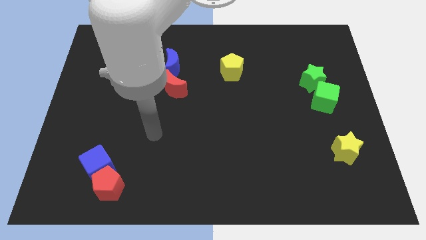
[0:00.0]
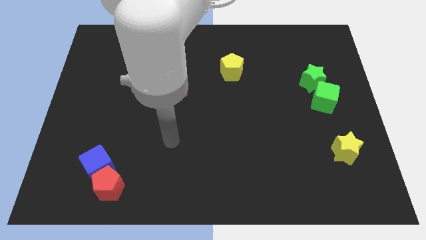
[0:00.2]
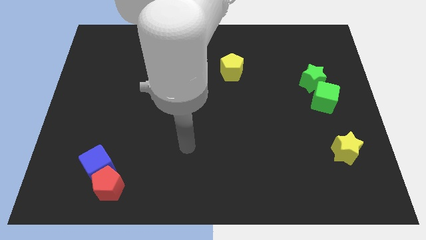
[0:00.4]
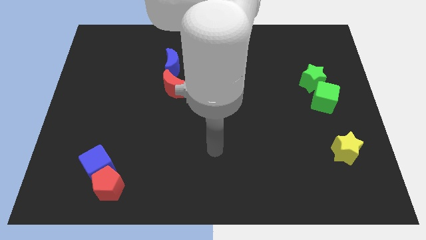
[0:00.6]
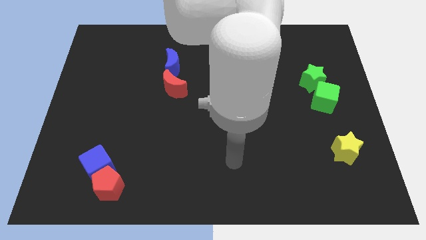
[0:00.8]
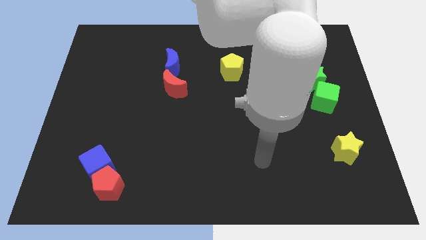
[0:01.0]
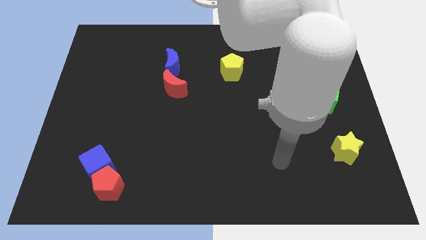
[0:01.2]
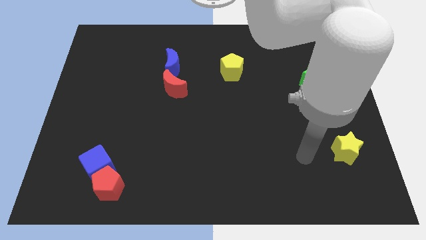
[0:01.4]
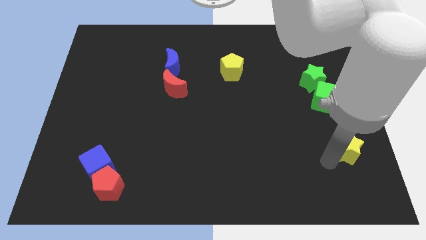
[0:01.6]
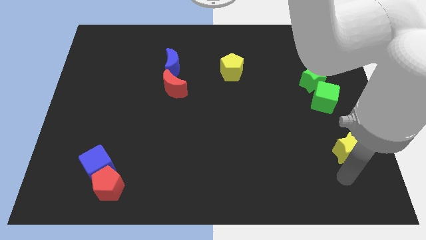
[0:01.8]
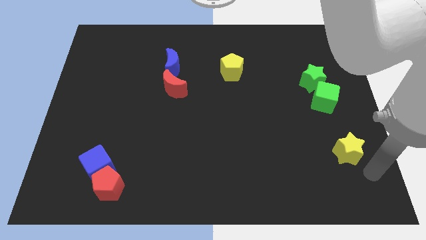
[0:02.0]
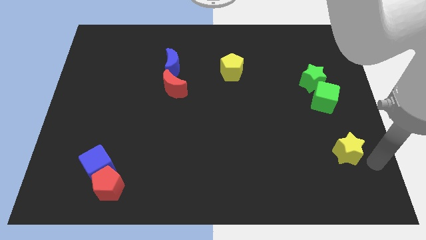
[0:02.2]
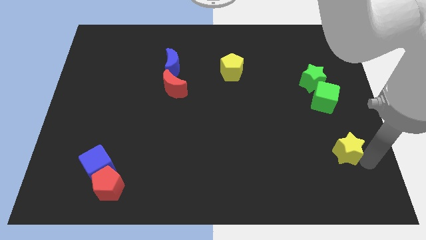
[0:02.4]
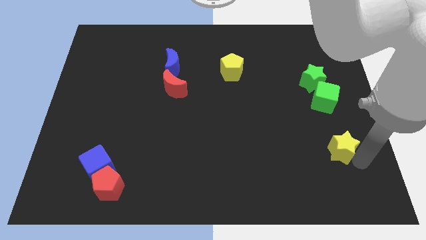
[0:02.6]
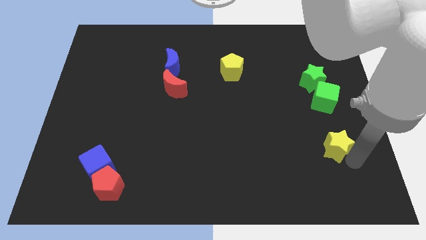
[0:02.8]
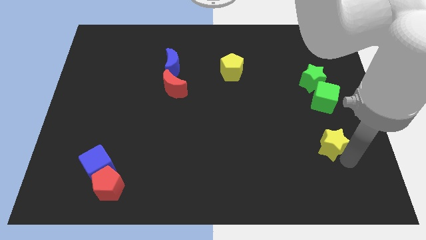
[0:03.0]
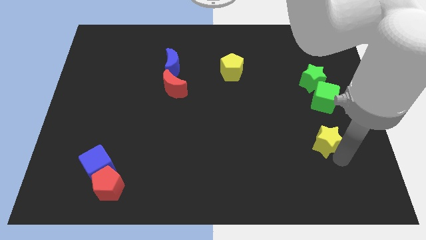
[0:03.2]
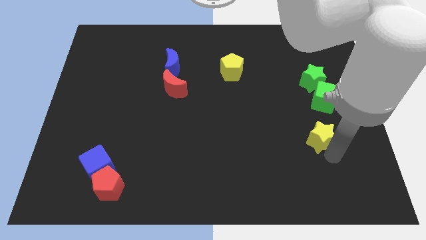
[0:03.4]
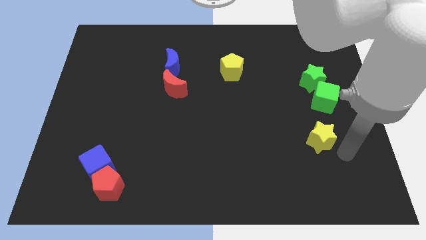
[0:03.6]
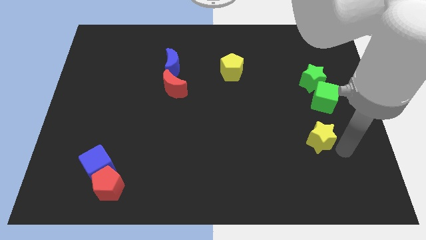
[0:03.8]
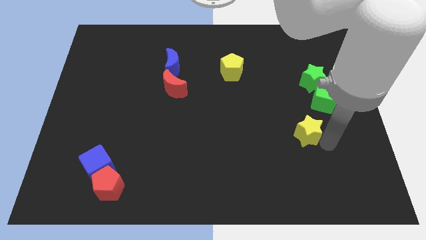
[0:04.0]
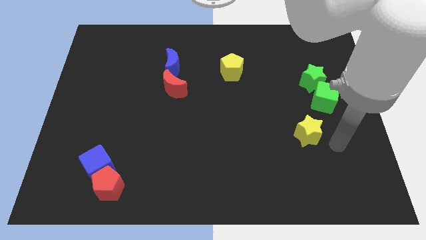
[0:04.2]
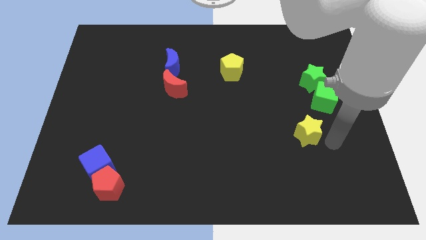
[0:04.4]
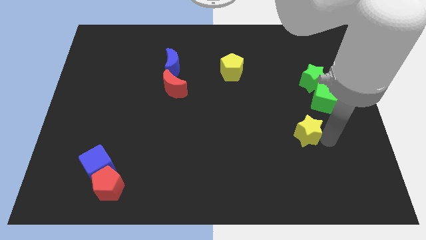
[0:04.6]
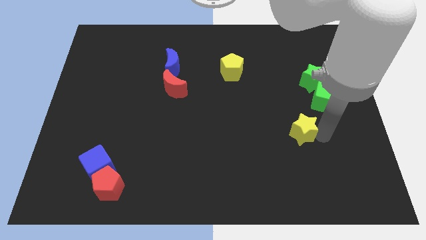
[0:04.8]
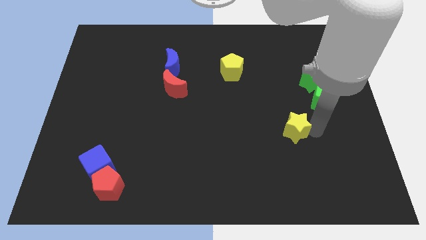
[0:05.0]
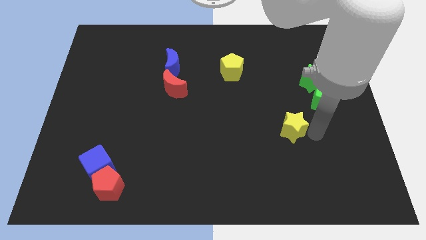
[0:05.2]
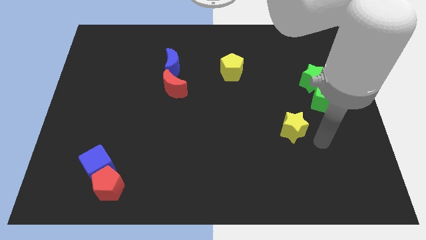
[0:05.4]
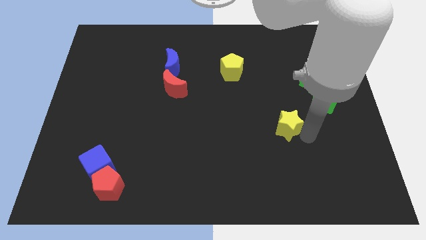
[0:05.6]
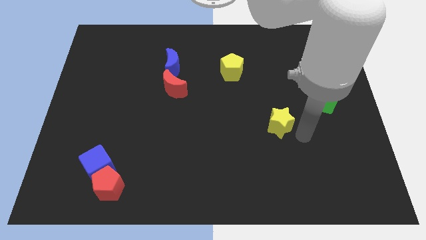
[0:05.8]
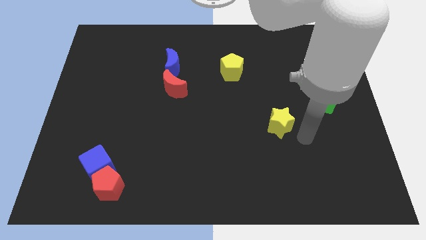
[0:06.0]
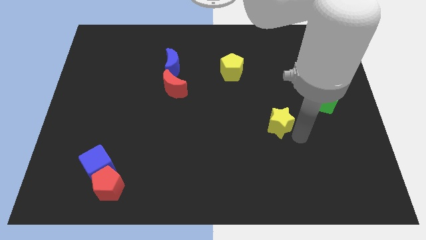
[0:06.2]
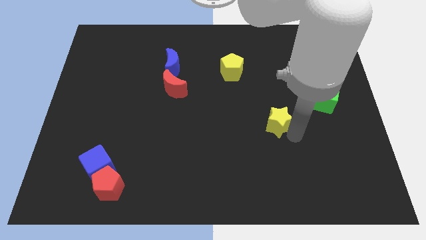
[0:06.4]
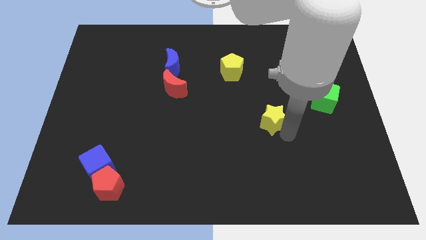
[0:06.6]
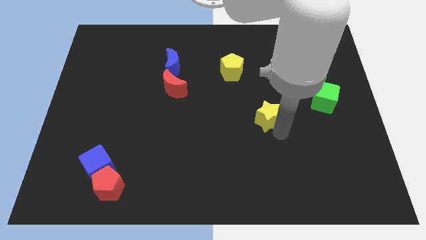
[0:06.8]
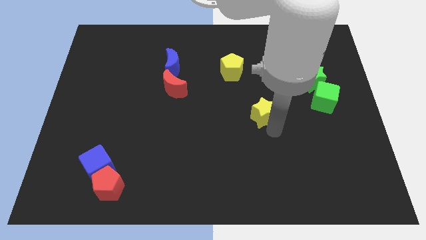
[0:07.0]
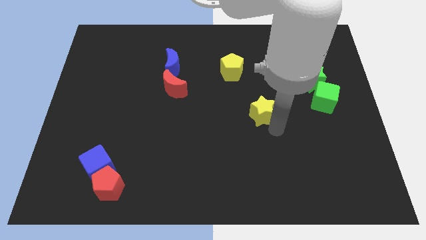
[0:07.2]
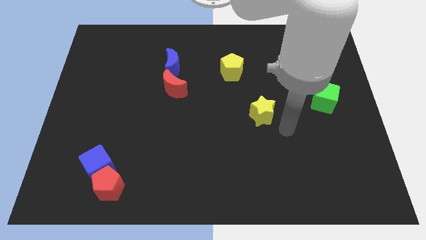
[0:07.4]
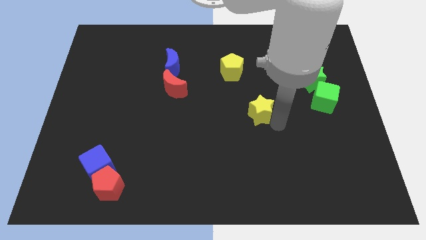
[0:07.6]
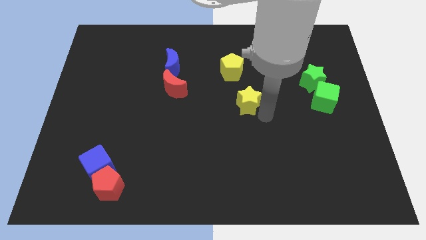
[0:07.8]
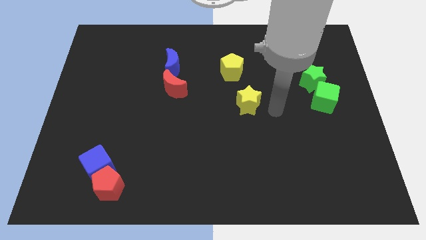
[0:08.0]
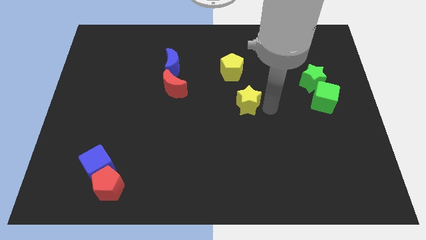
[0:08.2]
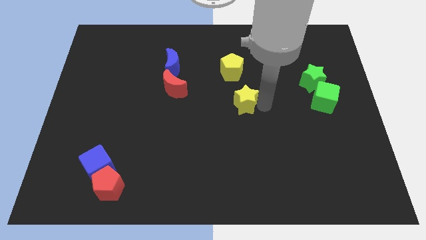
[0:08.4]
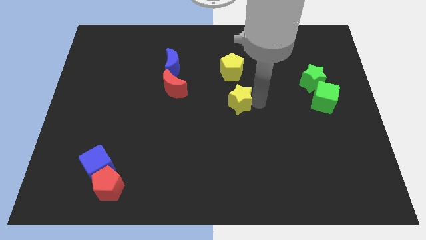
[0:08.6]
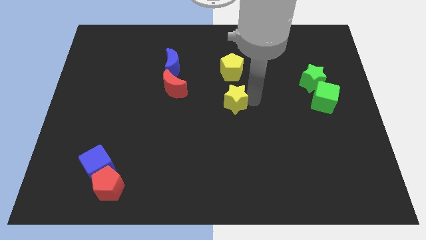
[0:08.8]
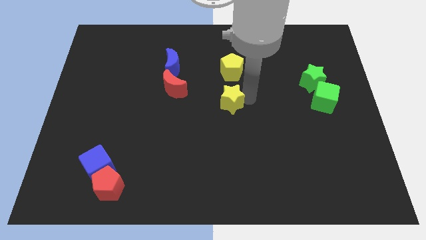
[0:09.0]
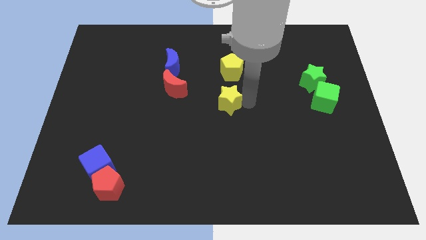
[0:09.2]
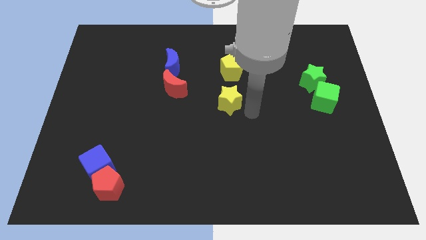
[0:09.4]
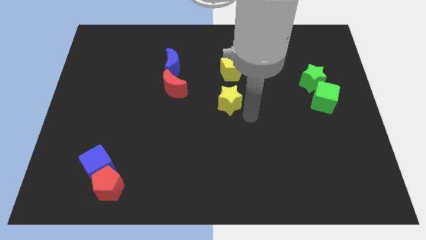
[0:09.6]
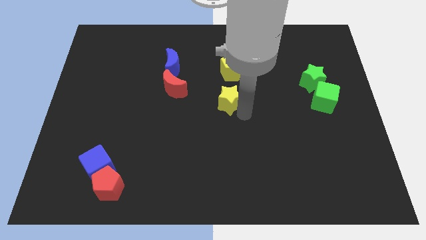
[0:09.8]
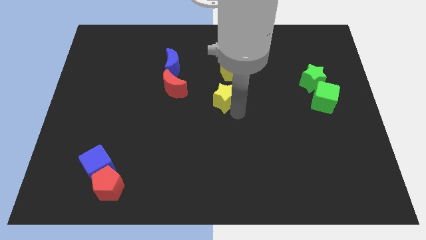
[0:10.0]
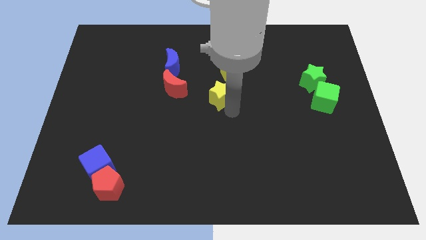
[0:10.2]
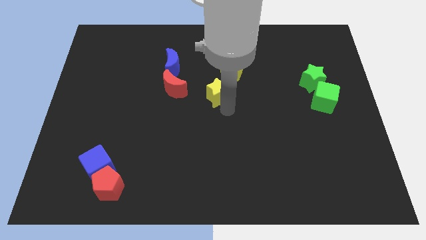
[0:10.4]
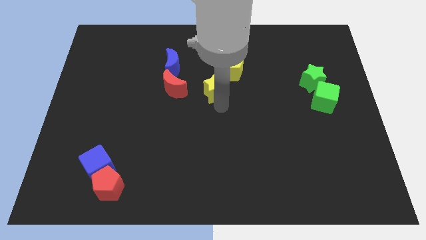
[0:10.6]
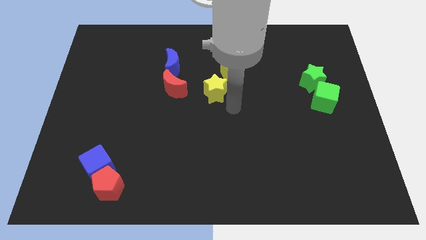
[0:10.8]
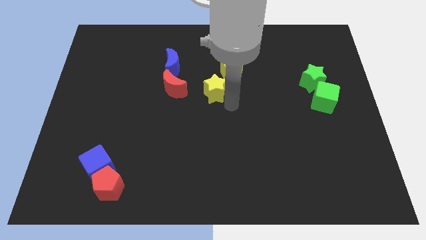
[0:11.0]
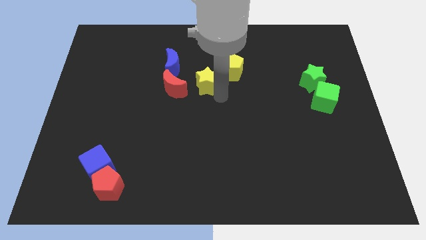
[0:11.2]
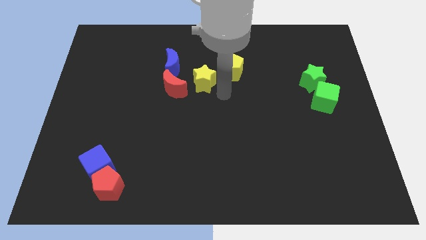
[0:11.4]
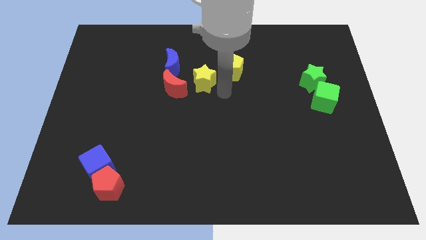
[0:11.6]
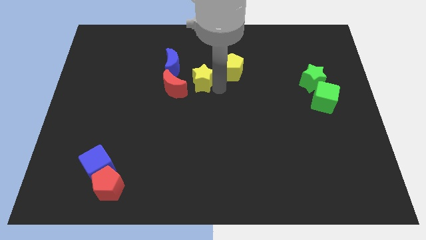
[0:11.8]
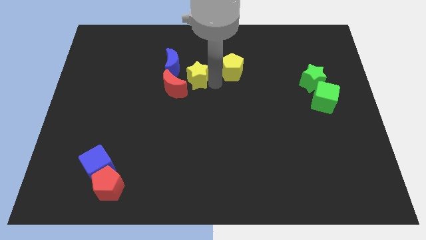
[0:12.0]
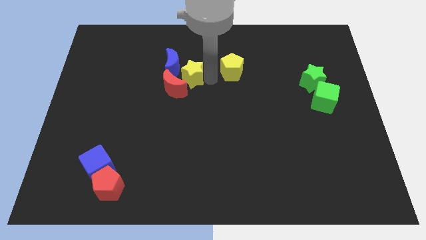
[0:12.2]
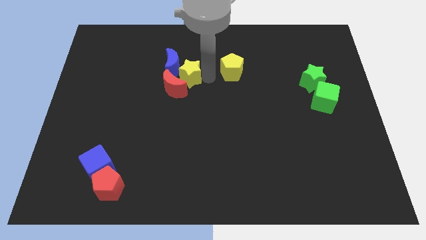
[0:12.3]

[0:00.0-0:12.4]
push the yellow star towards the blue moon
